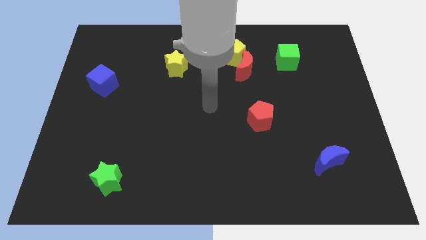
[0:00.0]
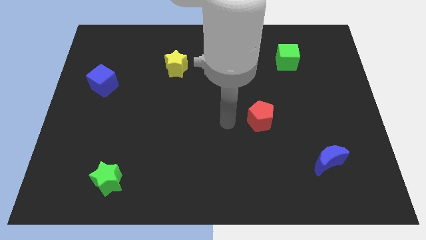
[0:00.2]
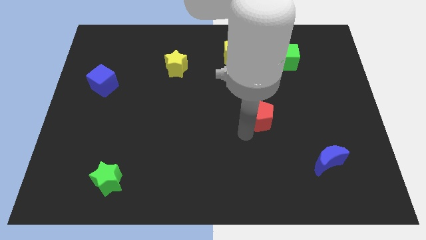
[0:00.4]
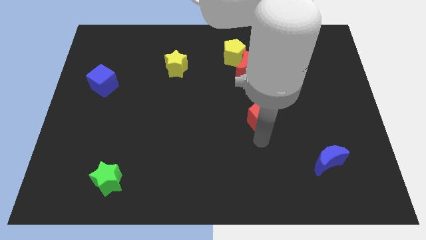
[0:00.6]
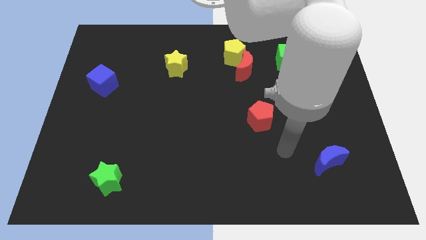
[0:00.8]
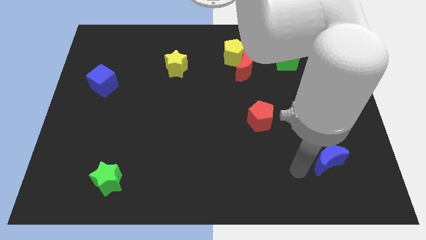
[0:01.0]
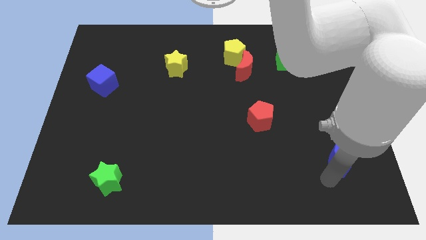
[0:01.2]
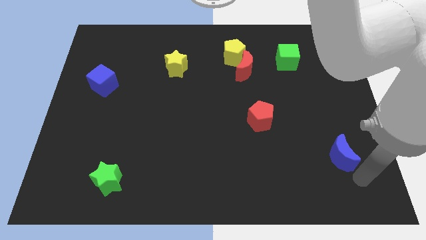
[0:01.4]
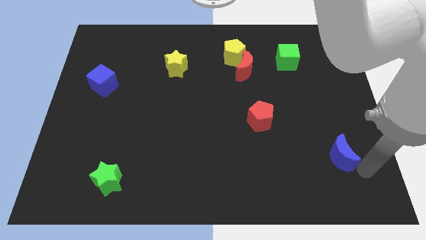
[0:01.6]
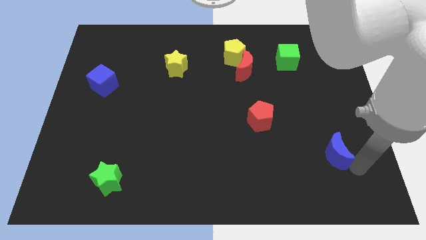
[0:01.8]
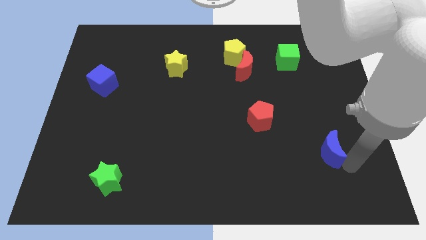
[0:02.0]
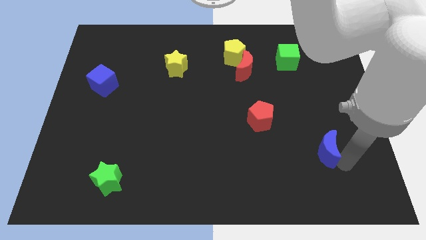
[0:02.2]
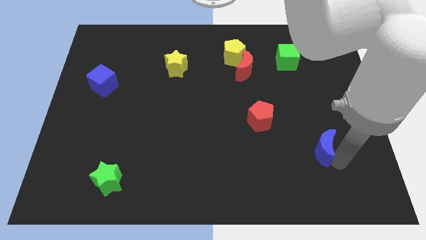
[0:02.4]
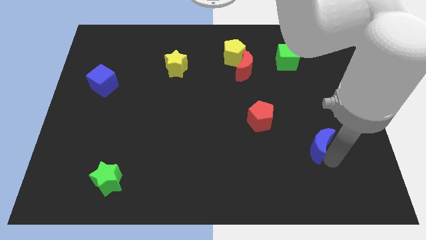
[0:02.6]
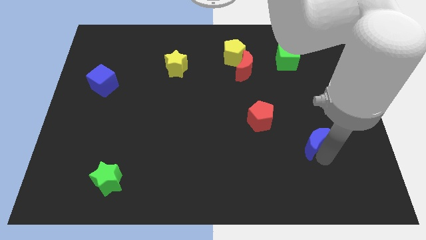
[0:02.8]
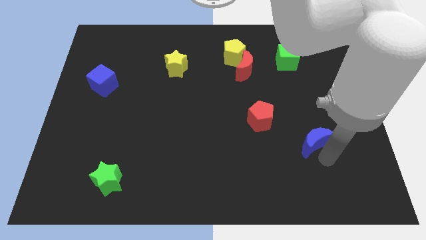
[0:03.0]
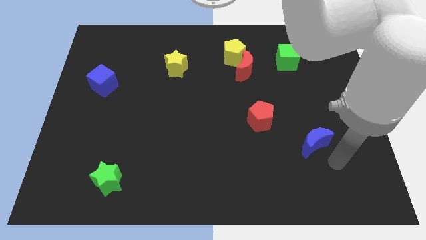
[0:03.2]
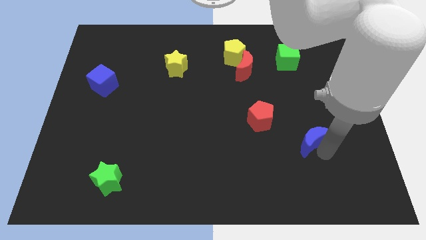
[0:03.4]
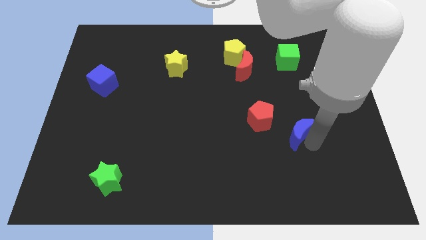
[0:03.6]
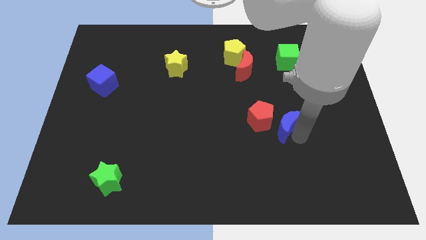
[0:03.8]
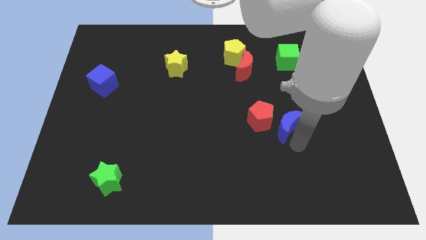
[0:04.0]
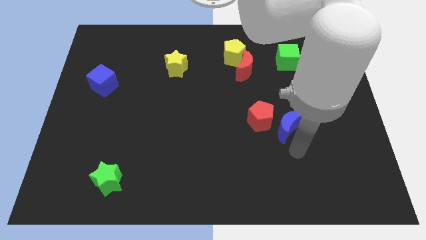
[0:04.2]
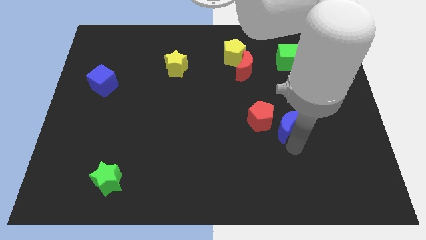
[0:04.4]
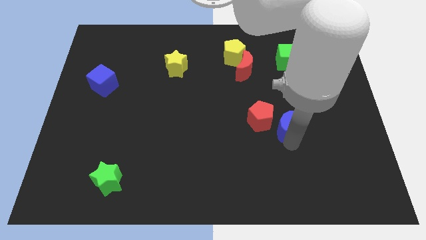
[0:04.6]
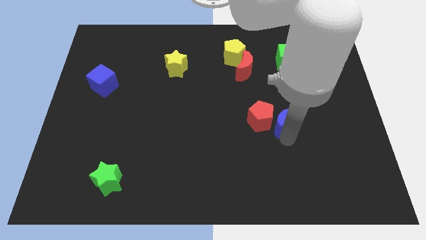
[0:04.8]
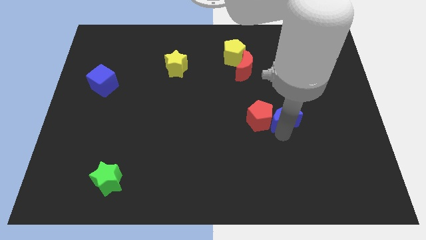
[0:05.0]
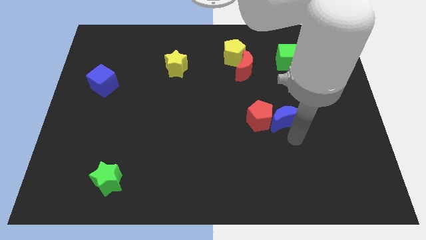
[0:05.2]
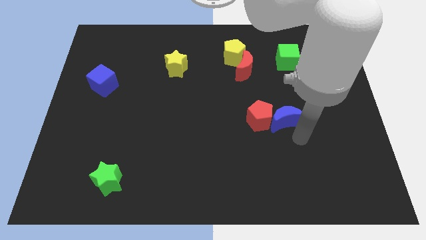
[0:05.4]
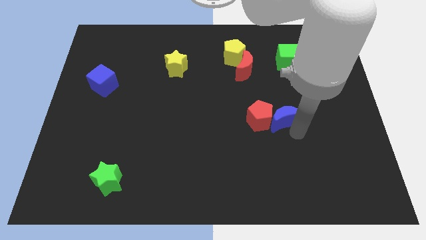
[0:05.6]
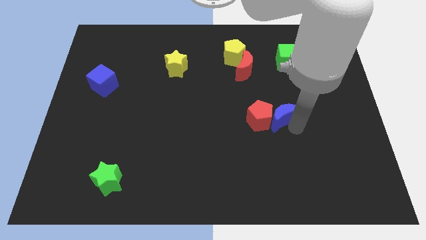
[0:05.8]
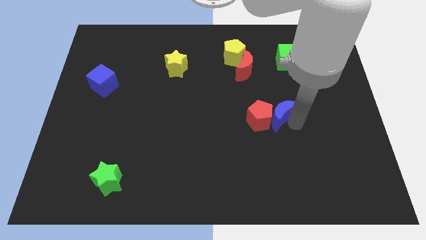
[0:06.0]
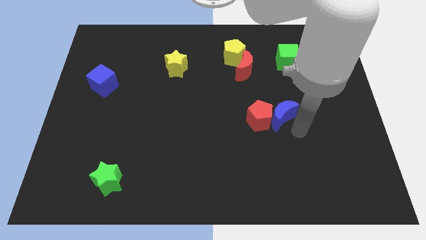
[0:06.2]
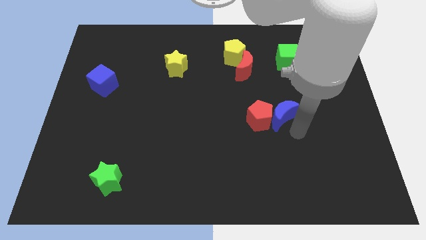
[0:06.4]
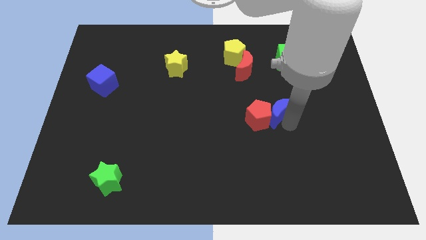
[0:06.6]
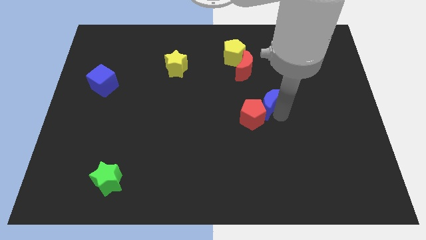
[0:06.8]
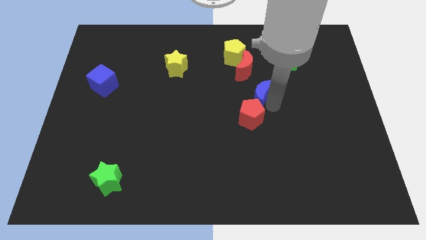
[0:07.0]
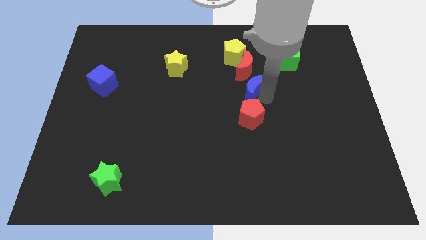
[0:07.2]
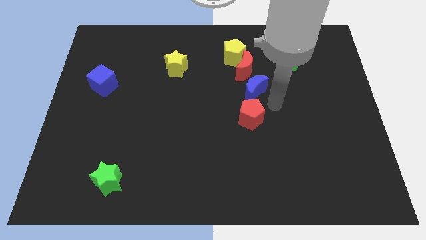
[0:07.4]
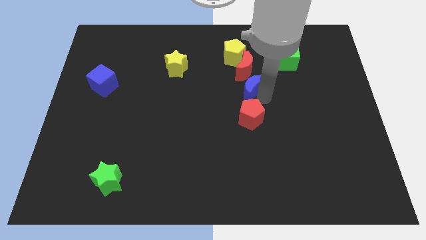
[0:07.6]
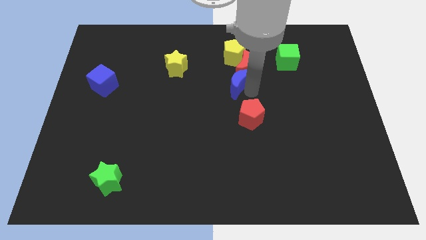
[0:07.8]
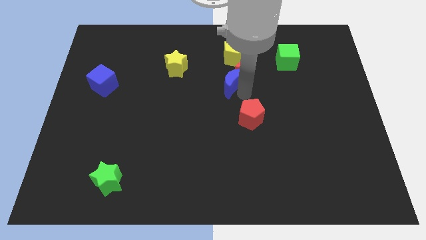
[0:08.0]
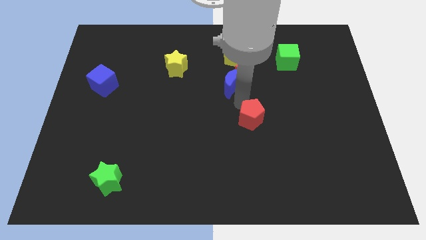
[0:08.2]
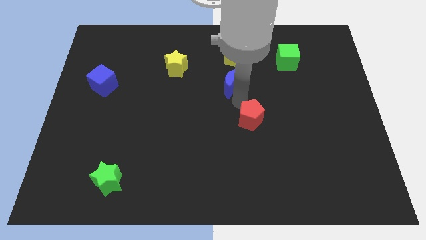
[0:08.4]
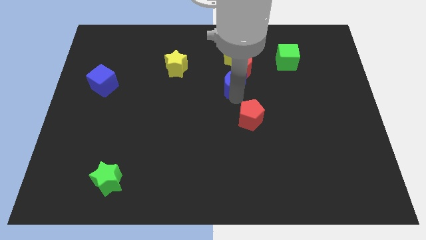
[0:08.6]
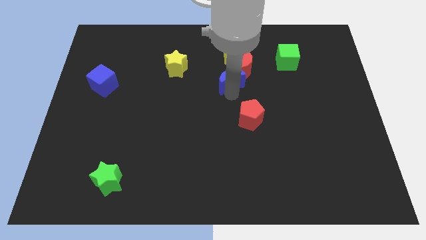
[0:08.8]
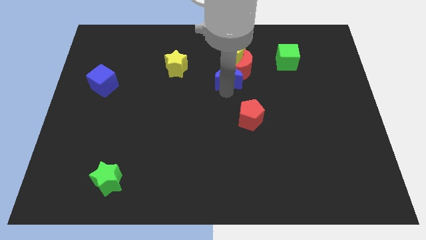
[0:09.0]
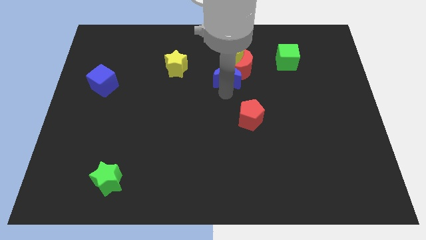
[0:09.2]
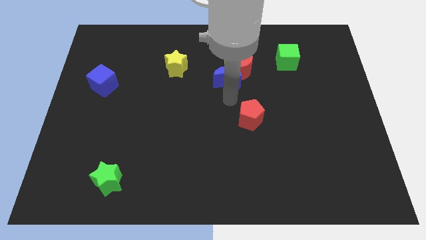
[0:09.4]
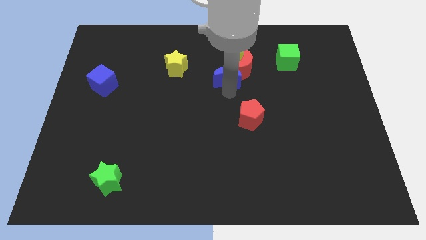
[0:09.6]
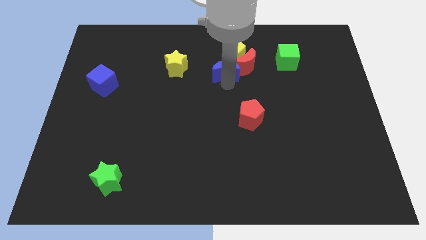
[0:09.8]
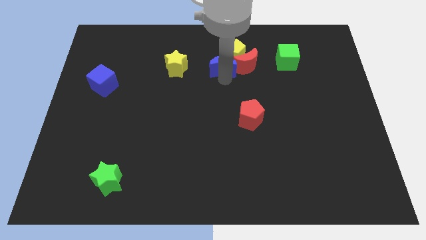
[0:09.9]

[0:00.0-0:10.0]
push the blue moon next to the yellow pentagon

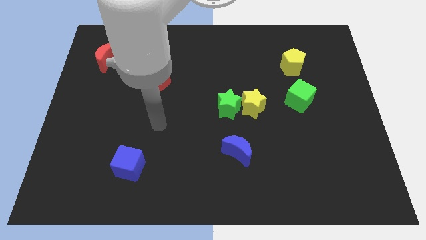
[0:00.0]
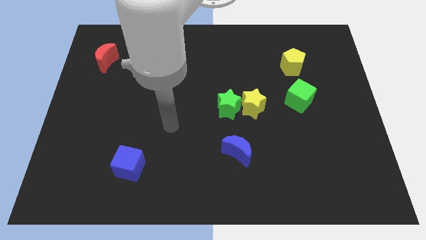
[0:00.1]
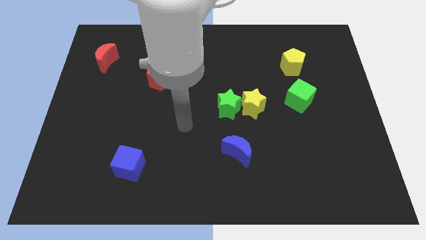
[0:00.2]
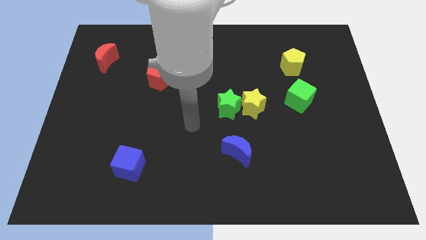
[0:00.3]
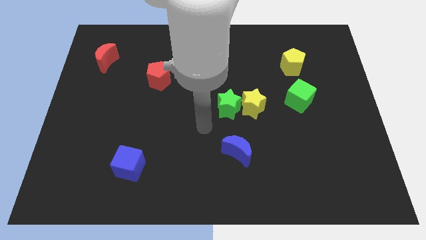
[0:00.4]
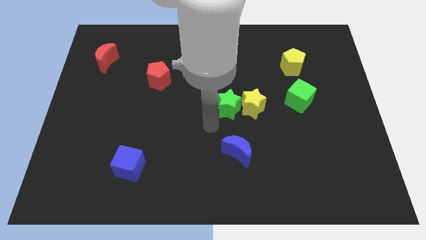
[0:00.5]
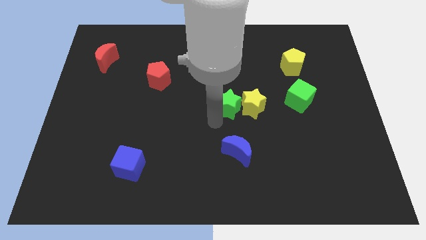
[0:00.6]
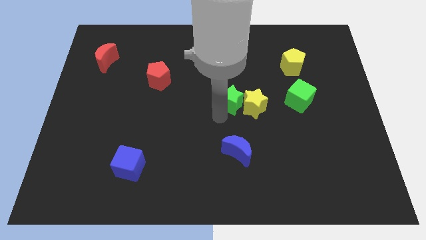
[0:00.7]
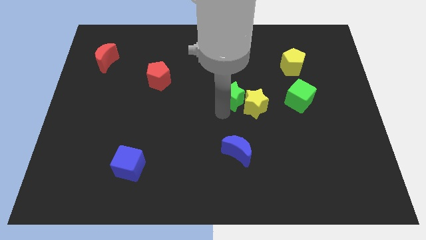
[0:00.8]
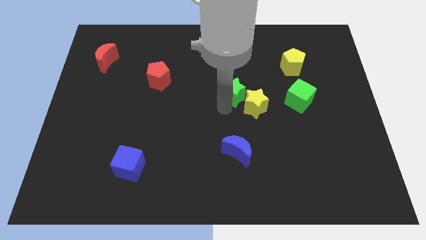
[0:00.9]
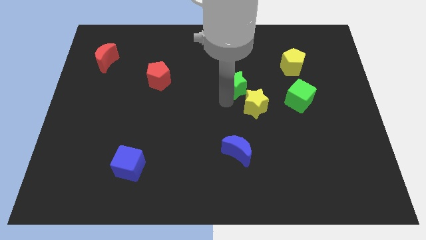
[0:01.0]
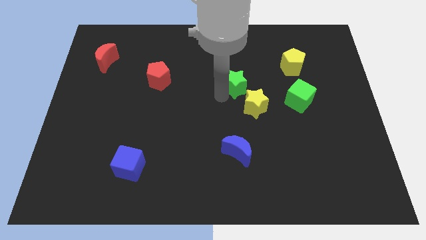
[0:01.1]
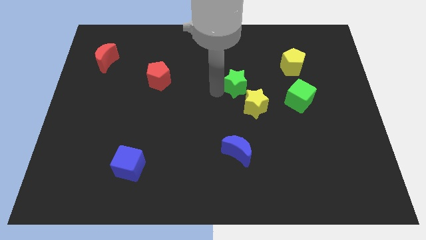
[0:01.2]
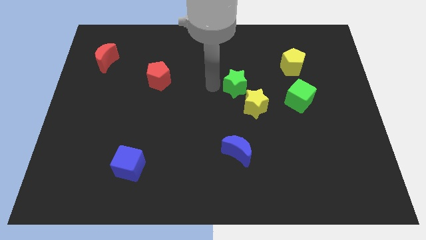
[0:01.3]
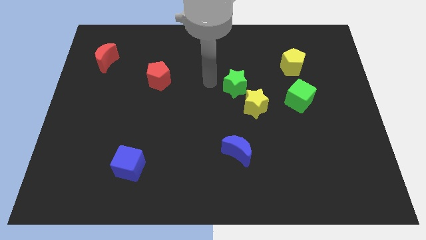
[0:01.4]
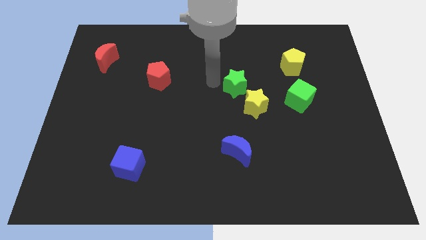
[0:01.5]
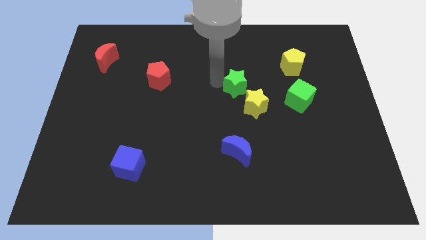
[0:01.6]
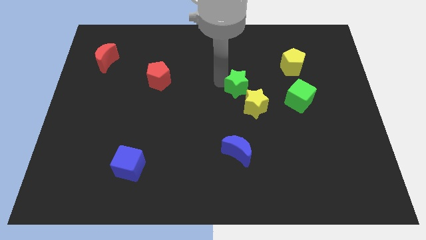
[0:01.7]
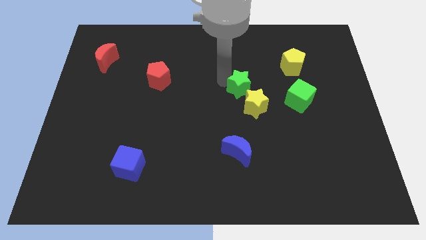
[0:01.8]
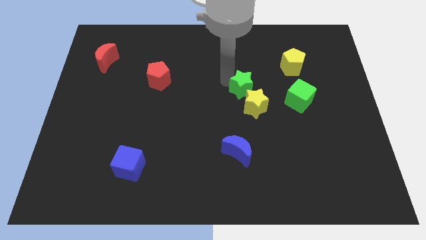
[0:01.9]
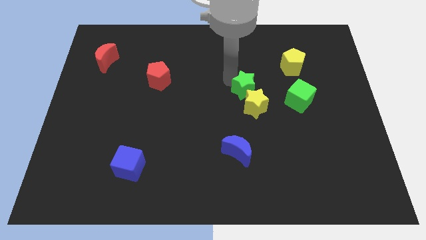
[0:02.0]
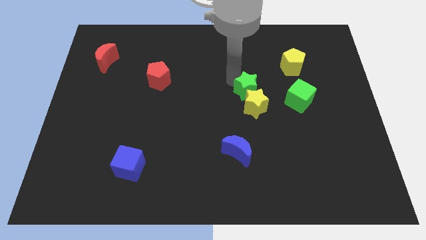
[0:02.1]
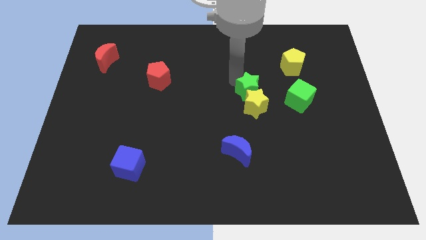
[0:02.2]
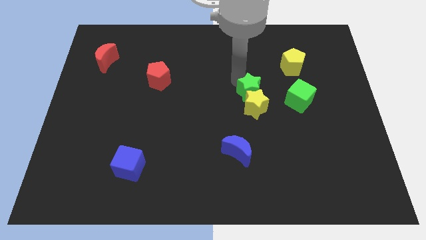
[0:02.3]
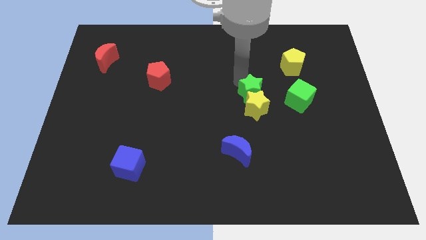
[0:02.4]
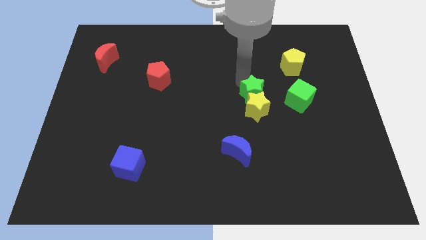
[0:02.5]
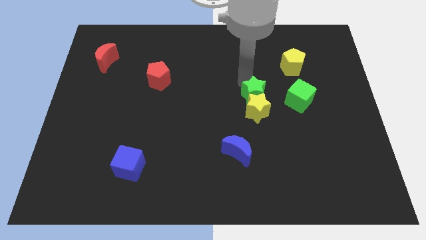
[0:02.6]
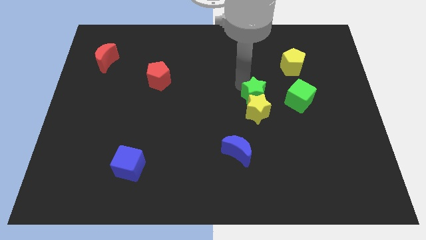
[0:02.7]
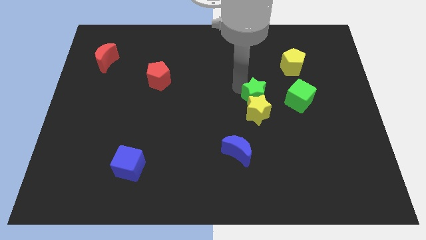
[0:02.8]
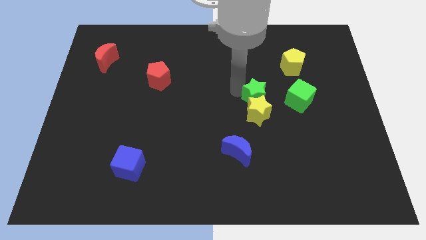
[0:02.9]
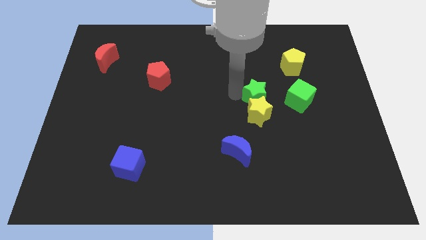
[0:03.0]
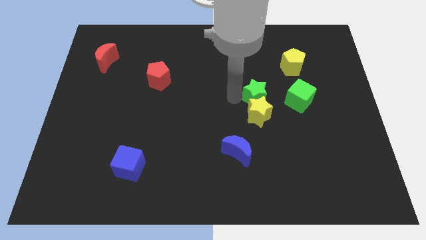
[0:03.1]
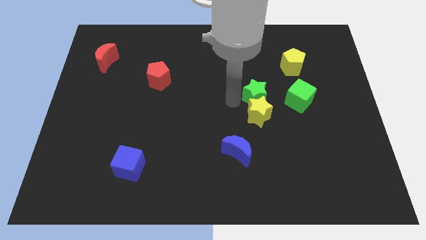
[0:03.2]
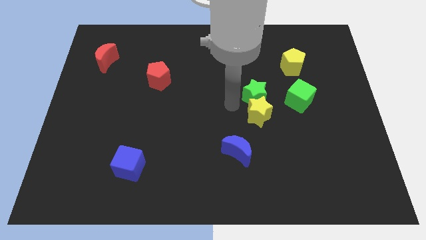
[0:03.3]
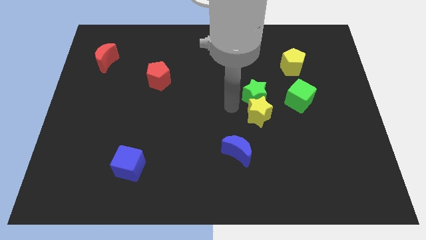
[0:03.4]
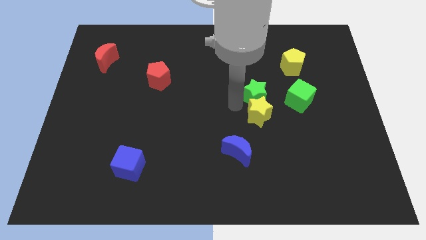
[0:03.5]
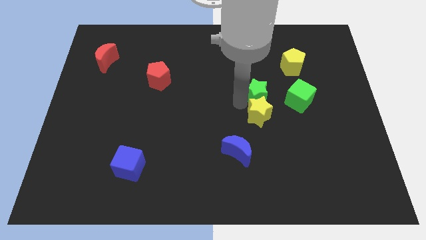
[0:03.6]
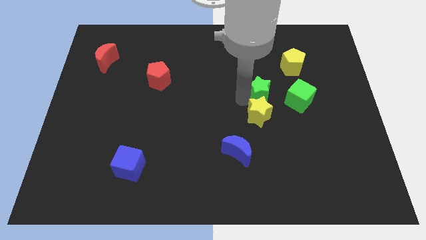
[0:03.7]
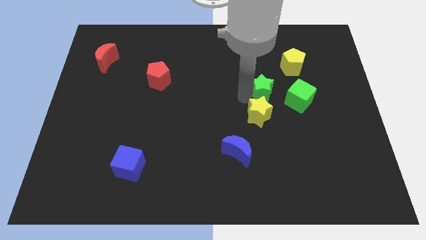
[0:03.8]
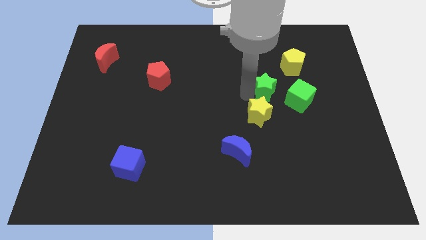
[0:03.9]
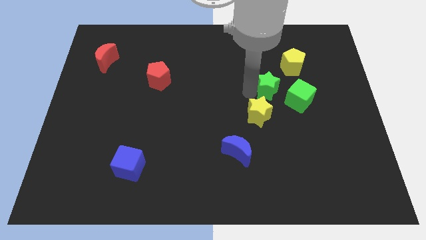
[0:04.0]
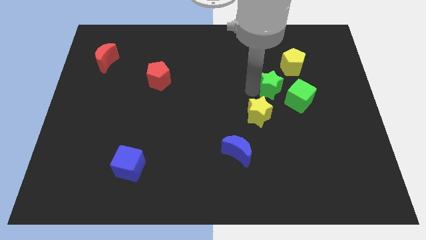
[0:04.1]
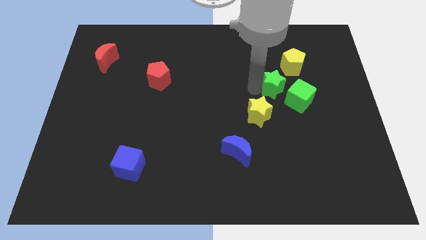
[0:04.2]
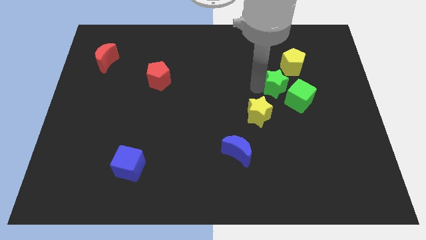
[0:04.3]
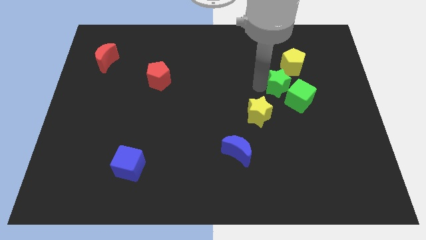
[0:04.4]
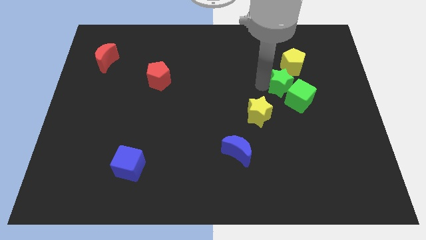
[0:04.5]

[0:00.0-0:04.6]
put the green star close to the green cube
